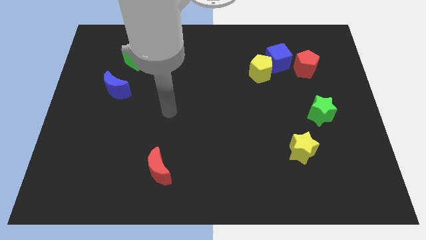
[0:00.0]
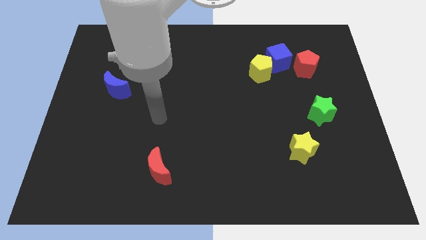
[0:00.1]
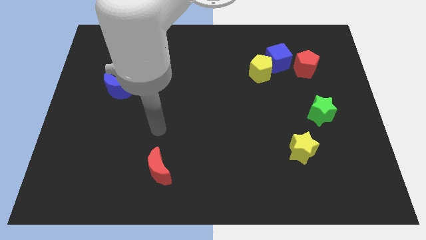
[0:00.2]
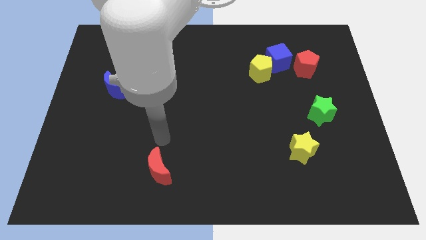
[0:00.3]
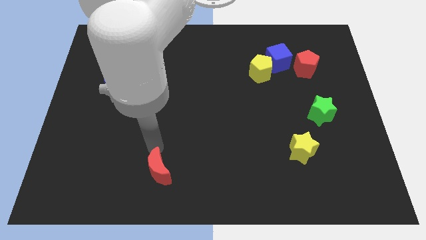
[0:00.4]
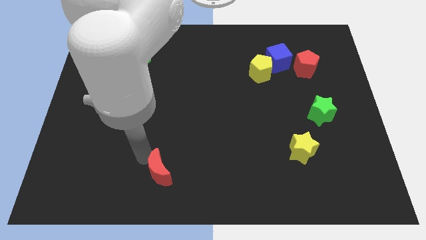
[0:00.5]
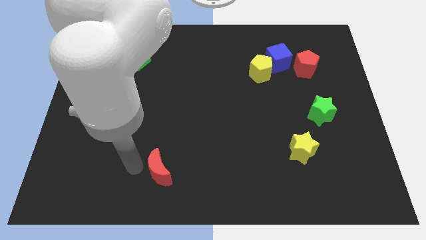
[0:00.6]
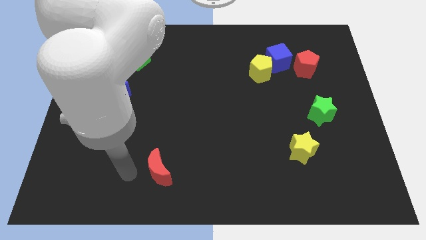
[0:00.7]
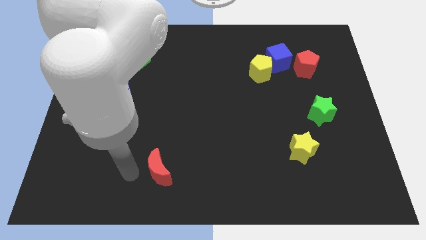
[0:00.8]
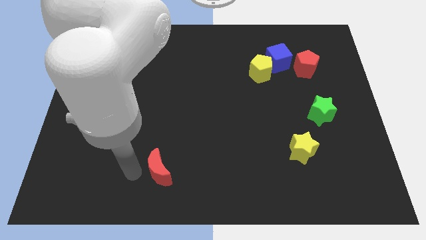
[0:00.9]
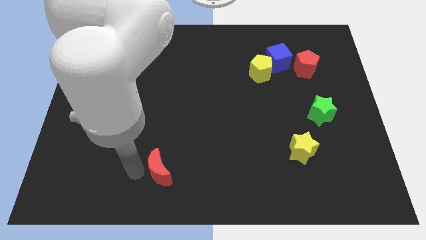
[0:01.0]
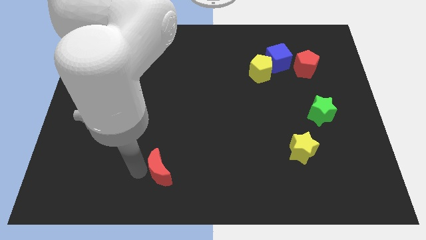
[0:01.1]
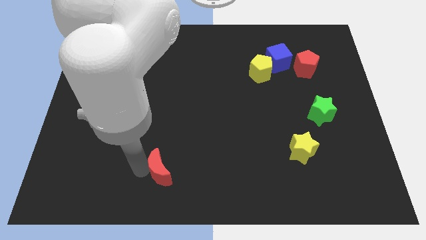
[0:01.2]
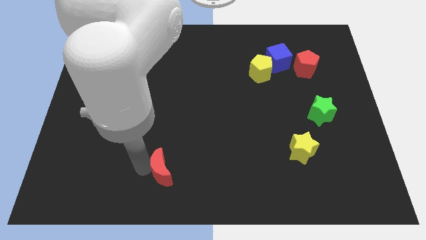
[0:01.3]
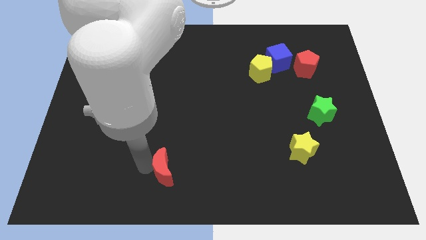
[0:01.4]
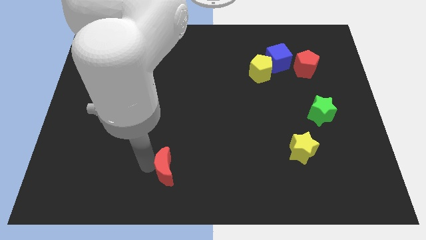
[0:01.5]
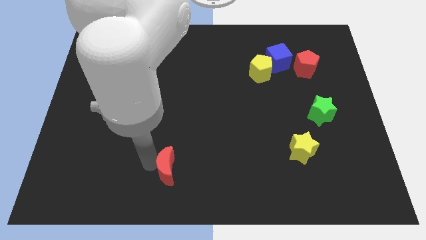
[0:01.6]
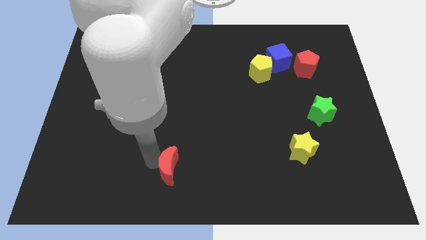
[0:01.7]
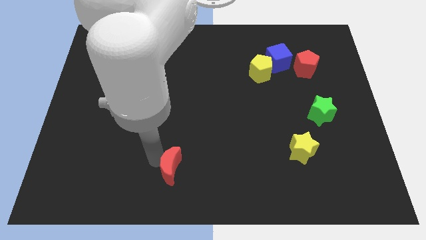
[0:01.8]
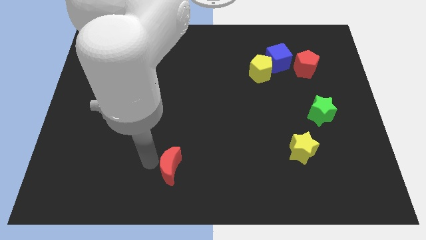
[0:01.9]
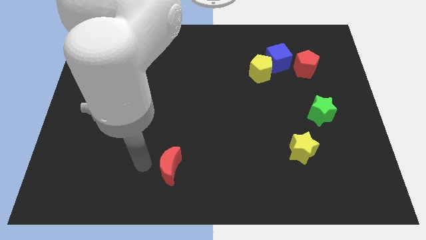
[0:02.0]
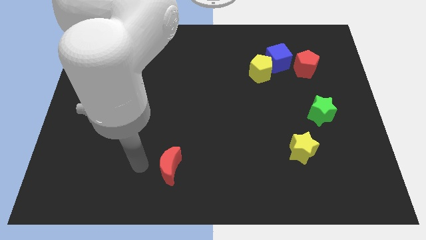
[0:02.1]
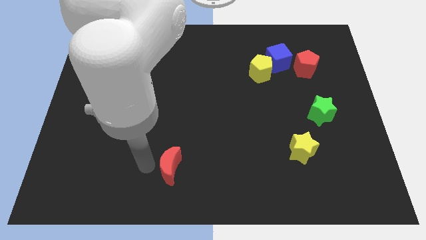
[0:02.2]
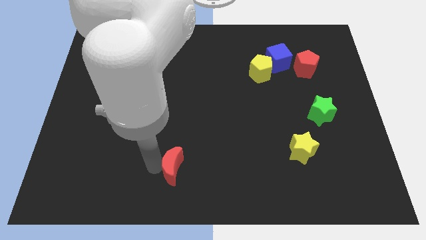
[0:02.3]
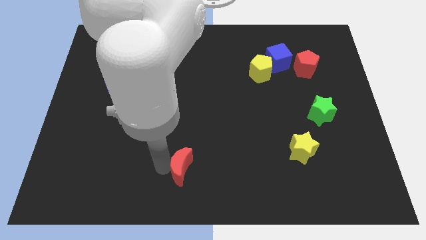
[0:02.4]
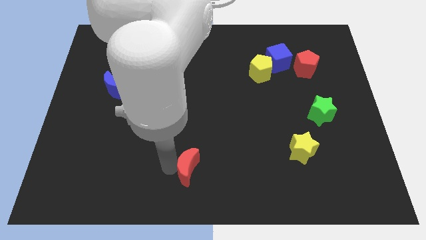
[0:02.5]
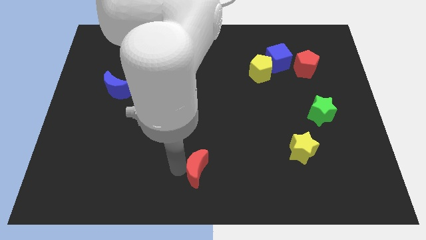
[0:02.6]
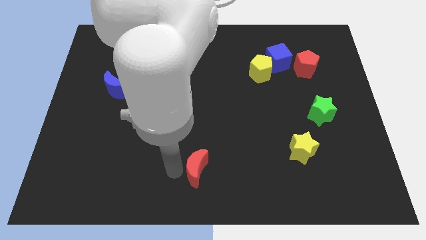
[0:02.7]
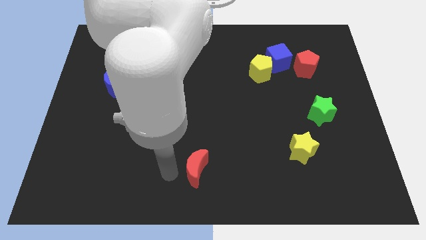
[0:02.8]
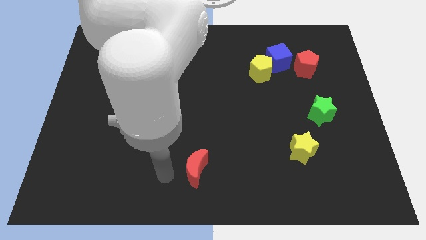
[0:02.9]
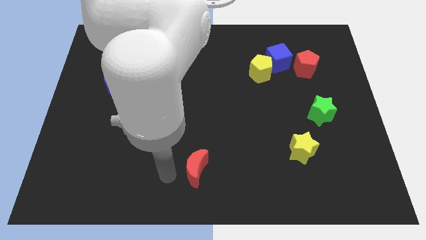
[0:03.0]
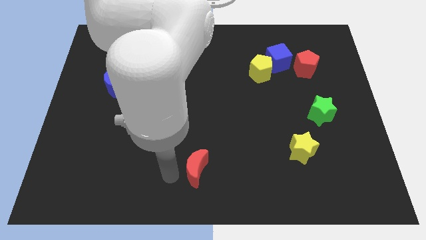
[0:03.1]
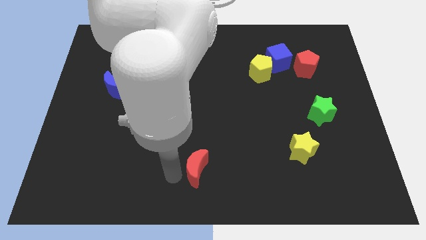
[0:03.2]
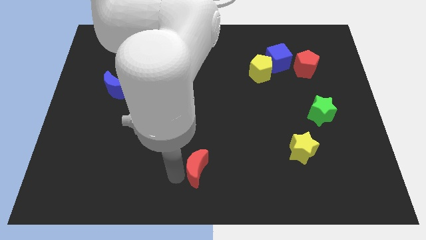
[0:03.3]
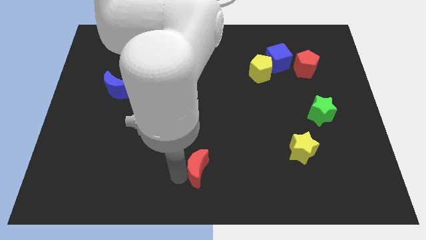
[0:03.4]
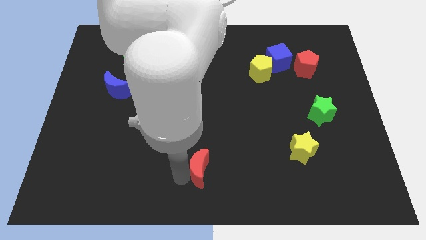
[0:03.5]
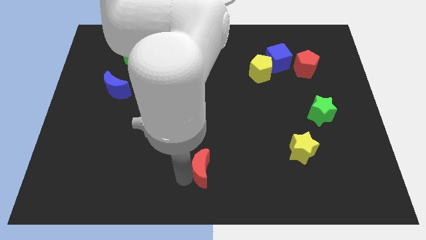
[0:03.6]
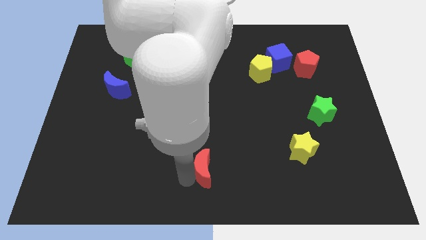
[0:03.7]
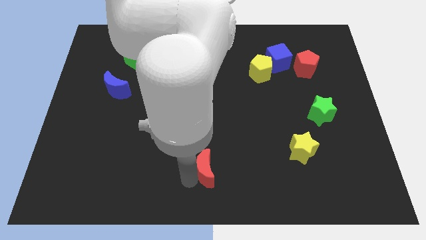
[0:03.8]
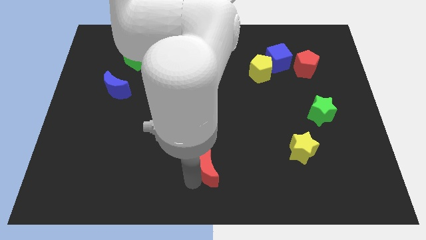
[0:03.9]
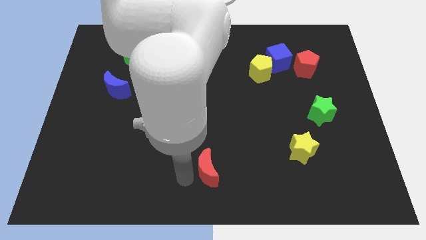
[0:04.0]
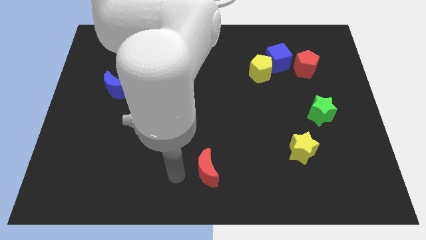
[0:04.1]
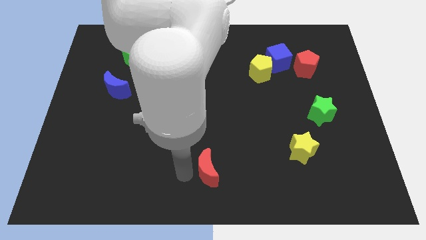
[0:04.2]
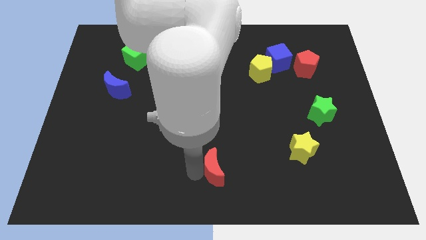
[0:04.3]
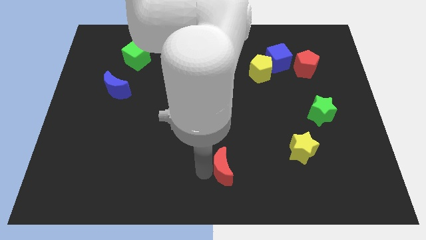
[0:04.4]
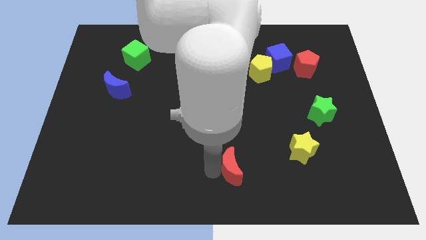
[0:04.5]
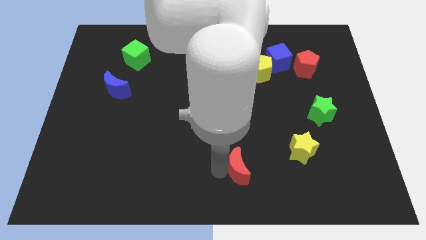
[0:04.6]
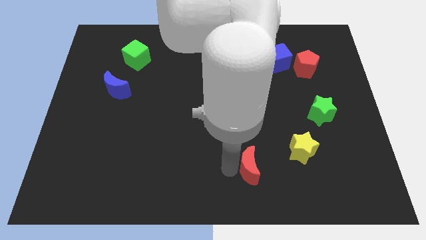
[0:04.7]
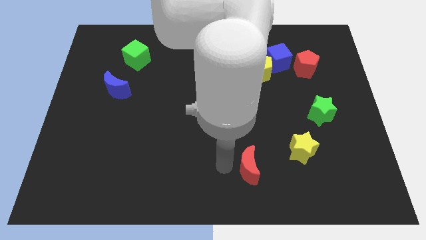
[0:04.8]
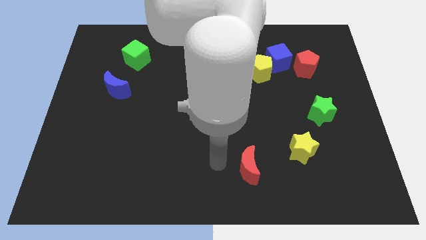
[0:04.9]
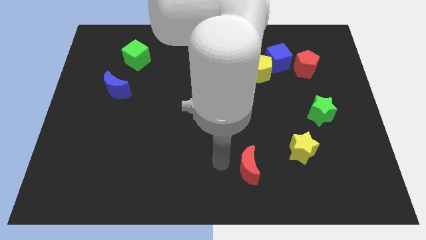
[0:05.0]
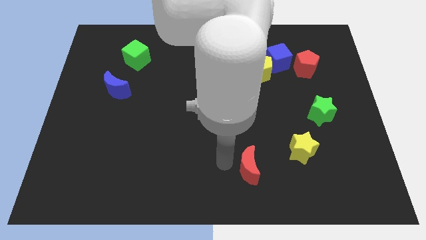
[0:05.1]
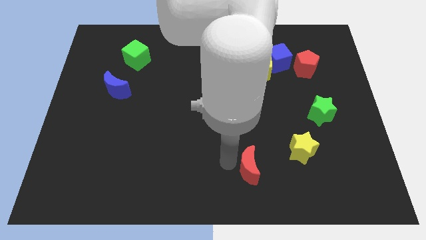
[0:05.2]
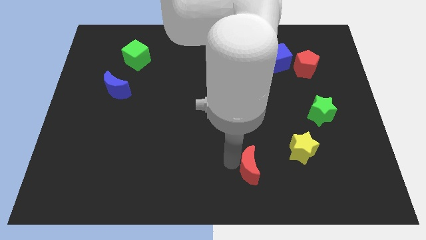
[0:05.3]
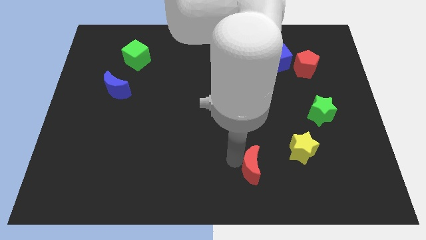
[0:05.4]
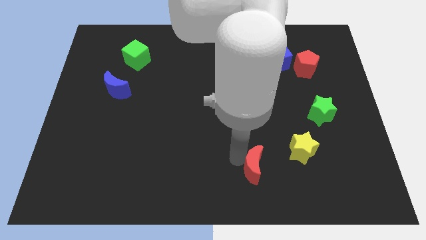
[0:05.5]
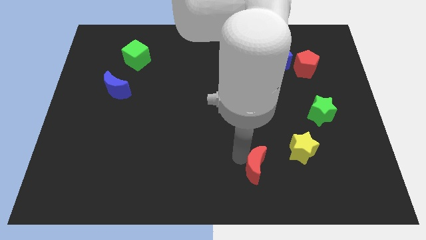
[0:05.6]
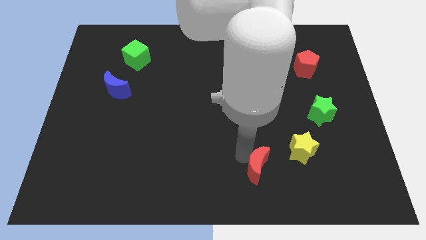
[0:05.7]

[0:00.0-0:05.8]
push the red moon to the bottom left of the yellow star

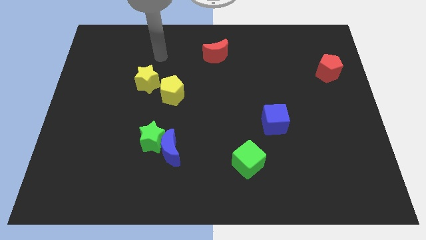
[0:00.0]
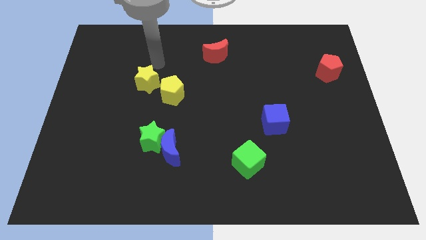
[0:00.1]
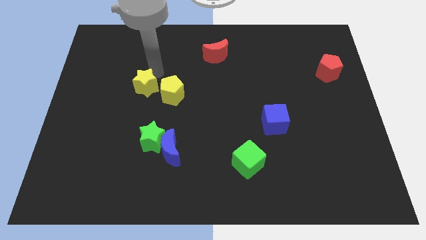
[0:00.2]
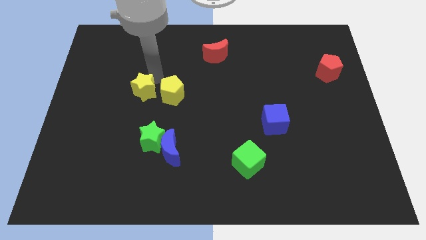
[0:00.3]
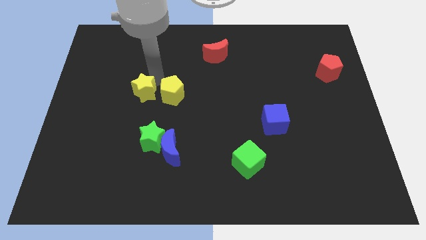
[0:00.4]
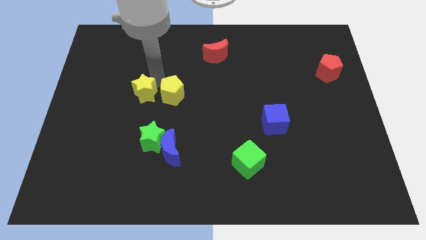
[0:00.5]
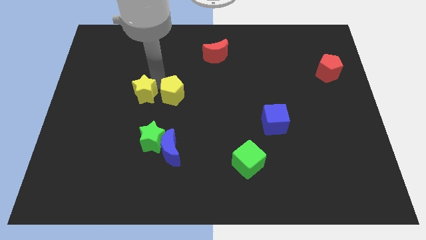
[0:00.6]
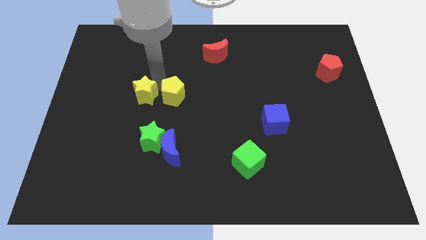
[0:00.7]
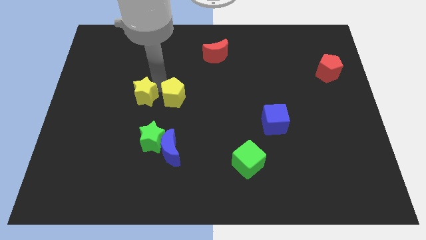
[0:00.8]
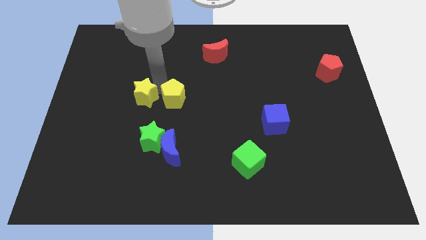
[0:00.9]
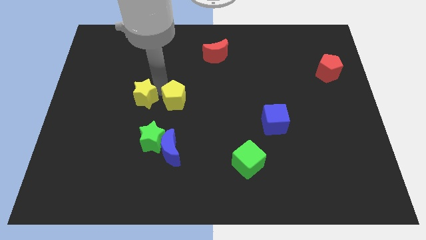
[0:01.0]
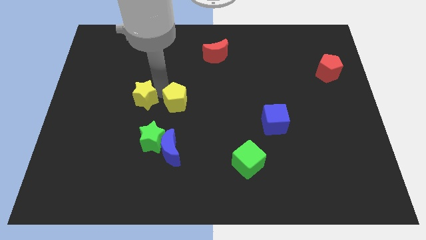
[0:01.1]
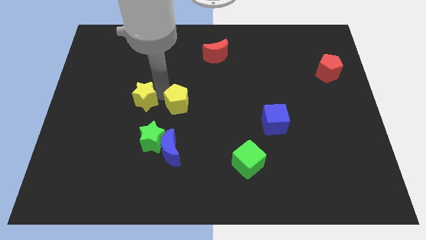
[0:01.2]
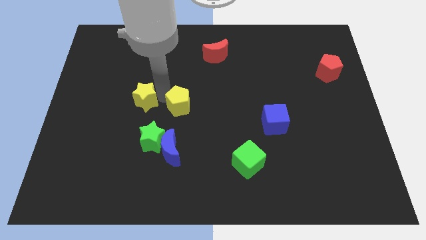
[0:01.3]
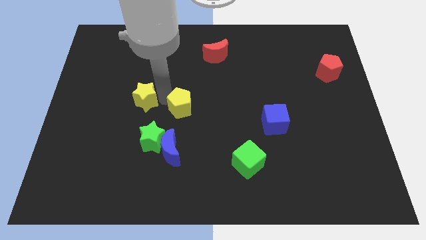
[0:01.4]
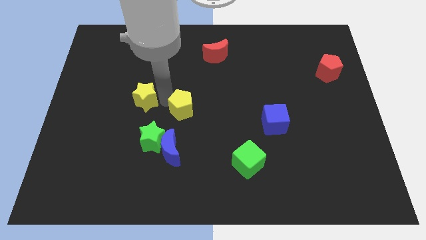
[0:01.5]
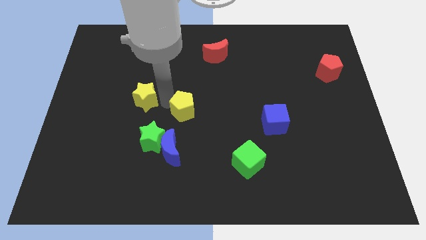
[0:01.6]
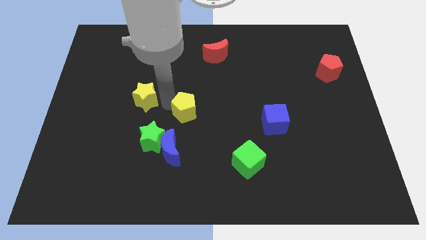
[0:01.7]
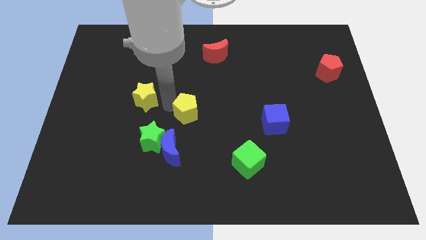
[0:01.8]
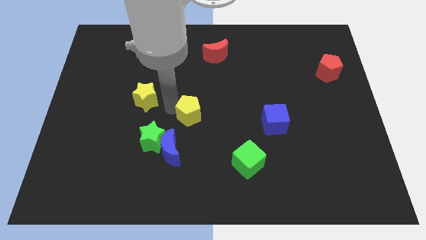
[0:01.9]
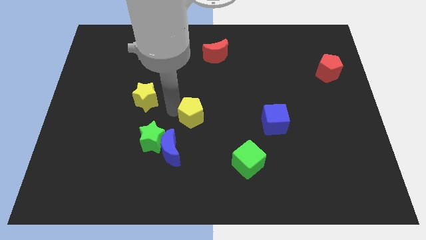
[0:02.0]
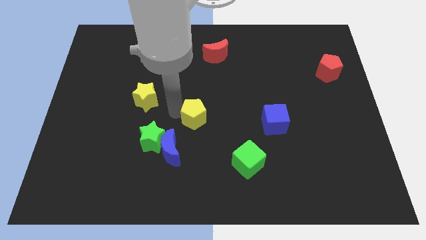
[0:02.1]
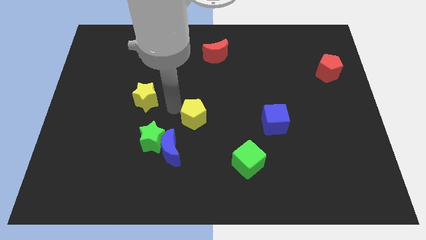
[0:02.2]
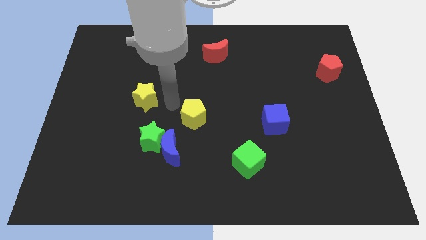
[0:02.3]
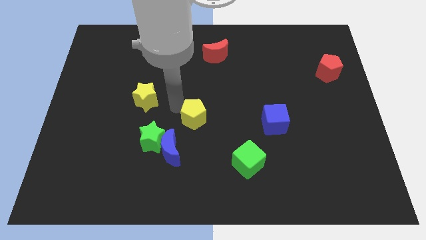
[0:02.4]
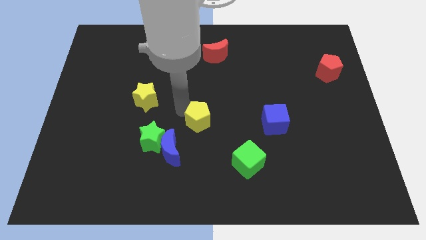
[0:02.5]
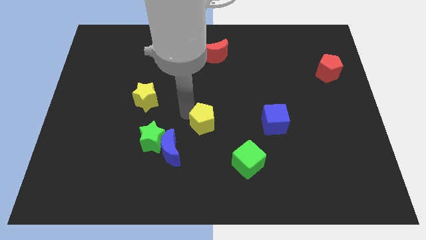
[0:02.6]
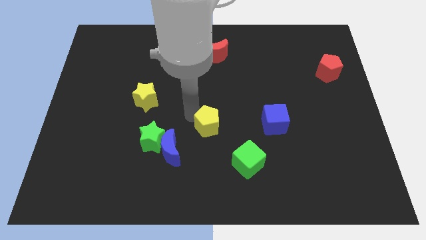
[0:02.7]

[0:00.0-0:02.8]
move the yellow pentagon diagonally up and to the left of the green cube
